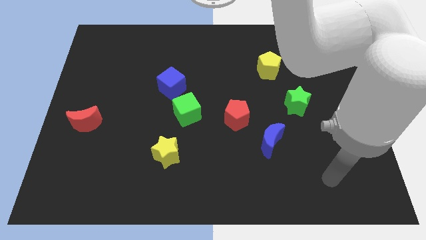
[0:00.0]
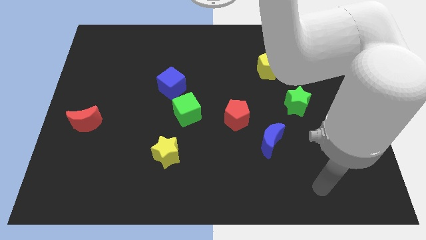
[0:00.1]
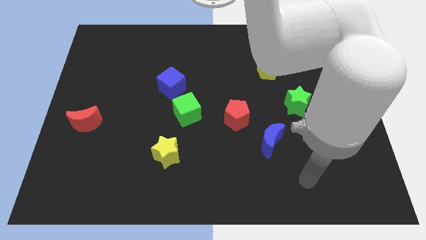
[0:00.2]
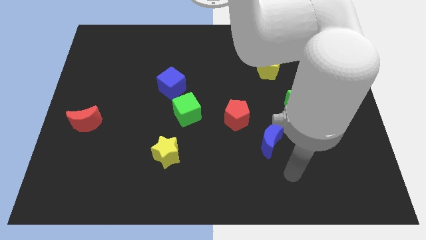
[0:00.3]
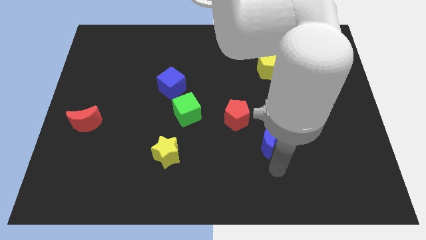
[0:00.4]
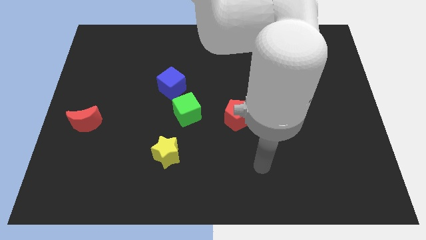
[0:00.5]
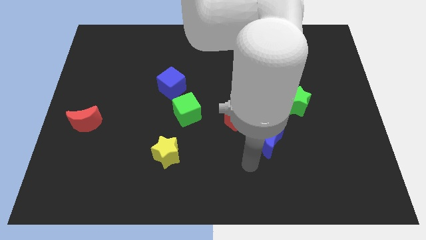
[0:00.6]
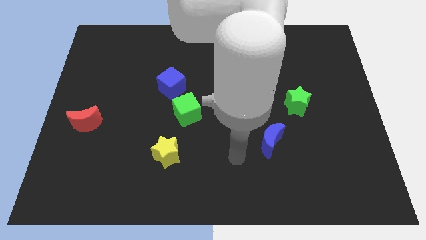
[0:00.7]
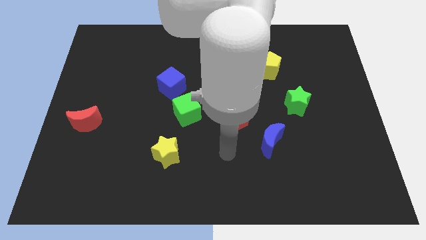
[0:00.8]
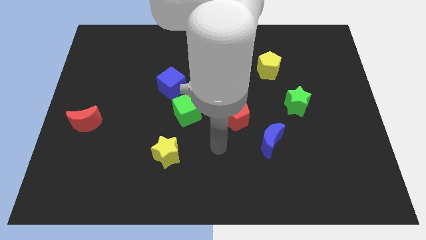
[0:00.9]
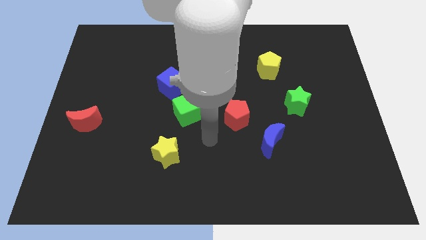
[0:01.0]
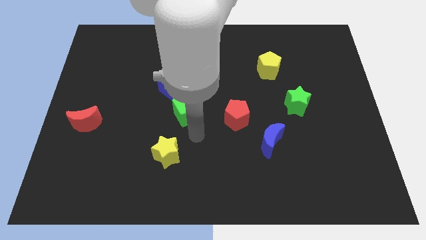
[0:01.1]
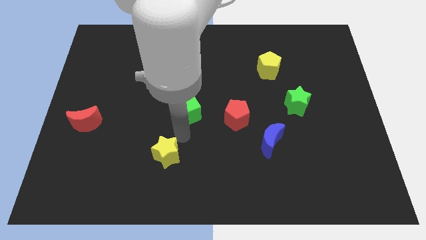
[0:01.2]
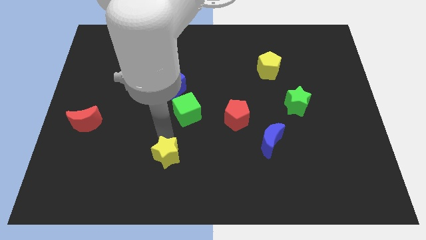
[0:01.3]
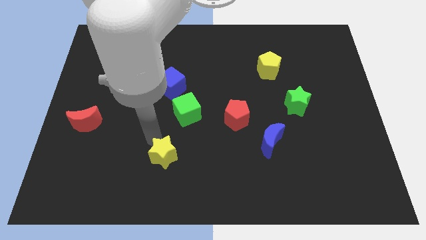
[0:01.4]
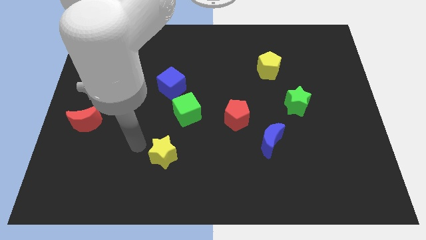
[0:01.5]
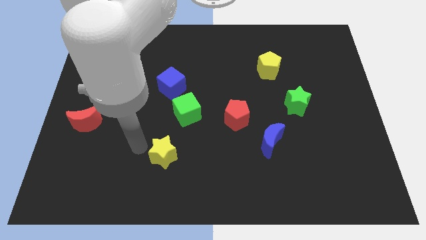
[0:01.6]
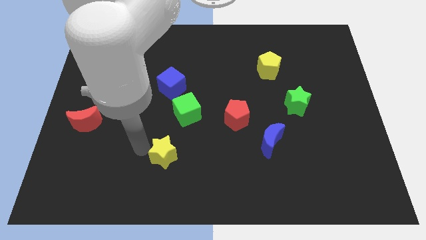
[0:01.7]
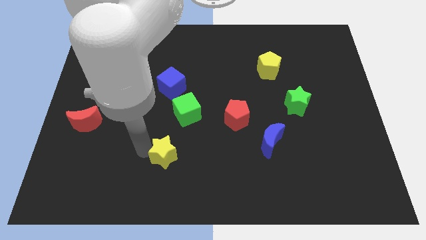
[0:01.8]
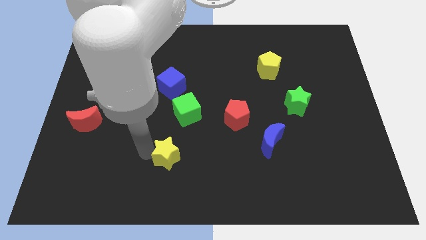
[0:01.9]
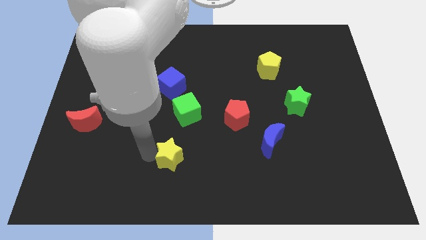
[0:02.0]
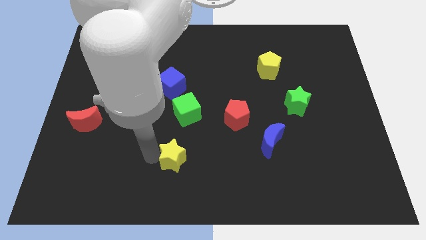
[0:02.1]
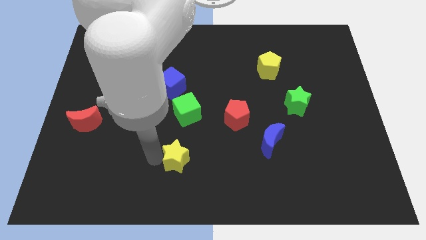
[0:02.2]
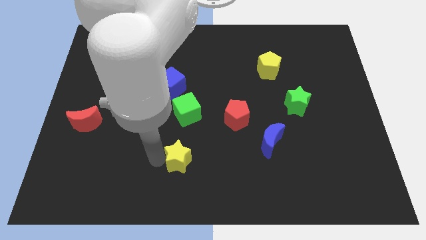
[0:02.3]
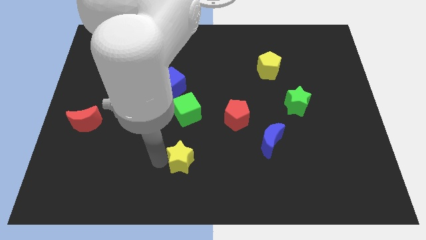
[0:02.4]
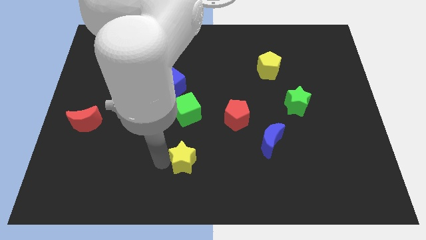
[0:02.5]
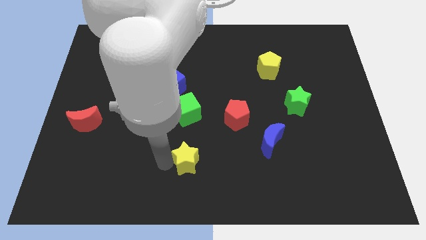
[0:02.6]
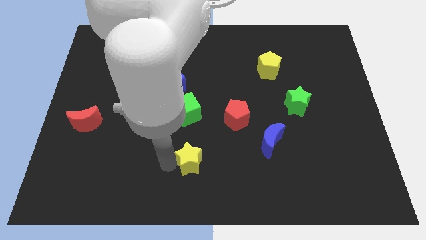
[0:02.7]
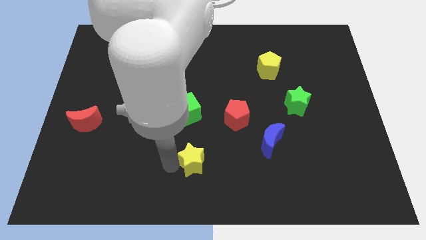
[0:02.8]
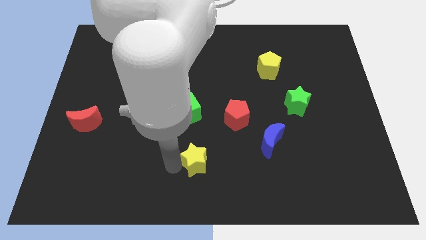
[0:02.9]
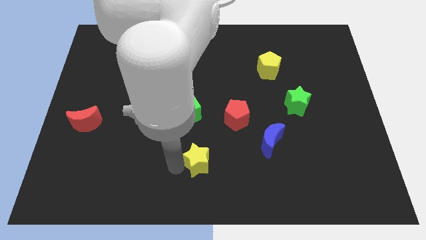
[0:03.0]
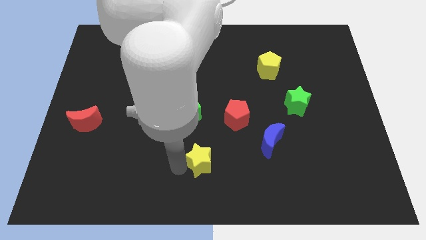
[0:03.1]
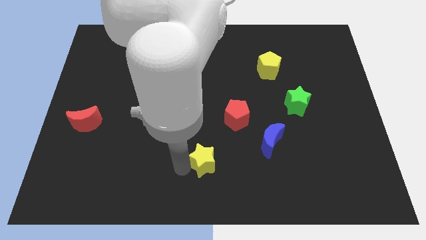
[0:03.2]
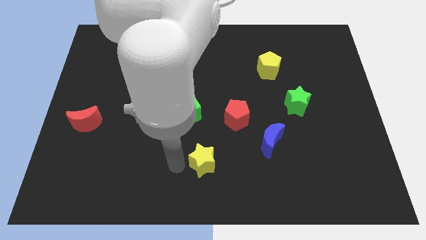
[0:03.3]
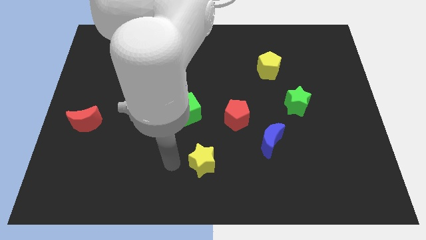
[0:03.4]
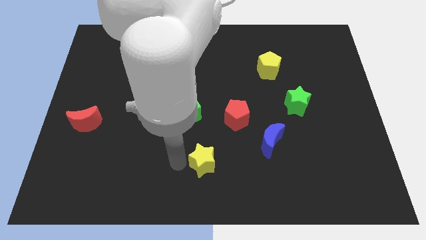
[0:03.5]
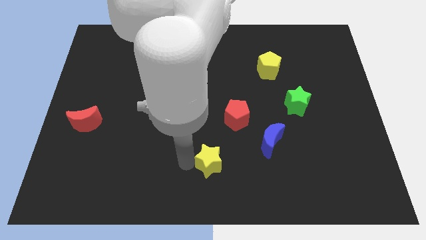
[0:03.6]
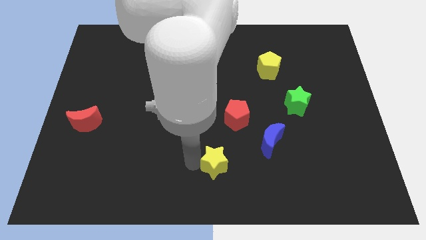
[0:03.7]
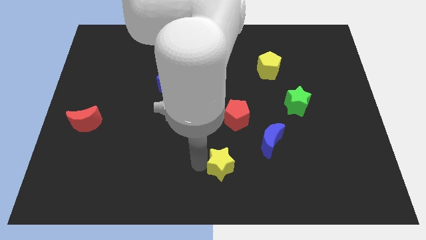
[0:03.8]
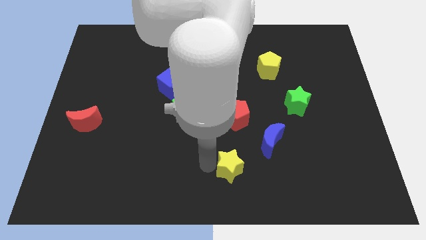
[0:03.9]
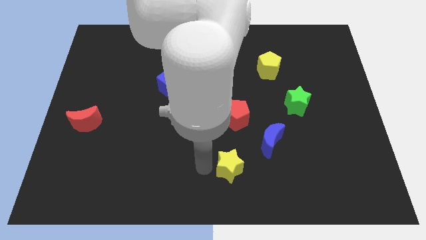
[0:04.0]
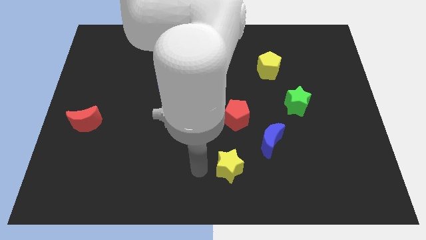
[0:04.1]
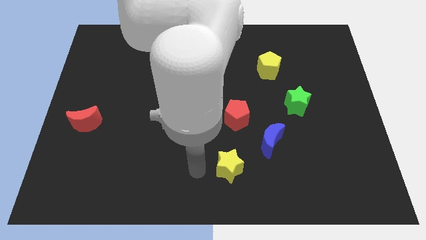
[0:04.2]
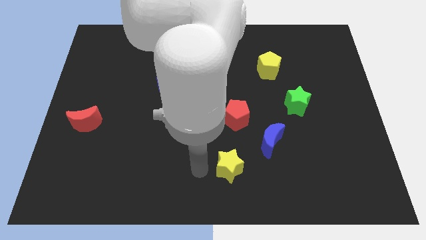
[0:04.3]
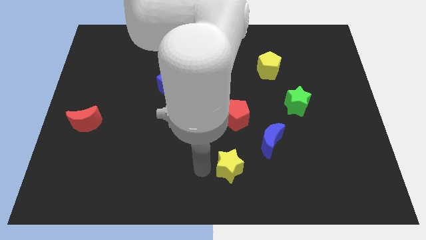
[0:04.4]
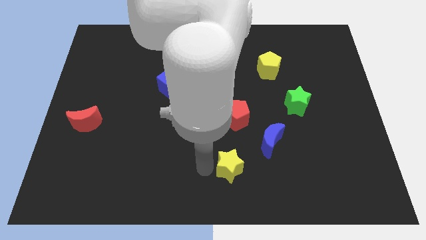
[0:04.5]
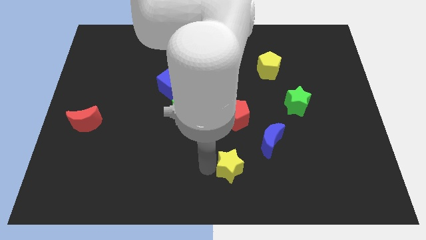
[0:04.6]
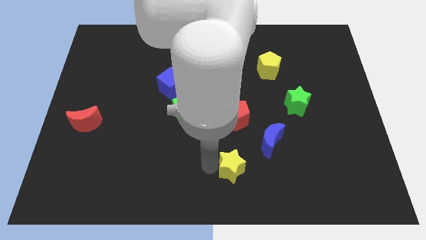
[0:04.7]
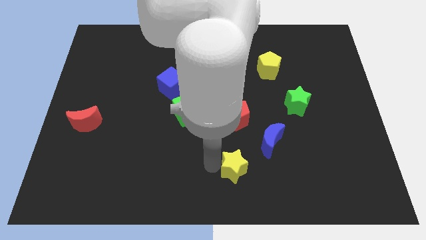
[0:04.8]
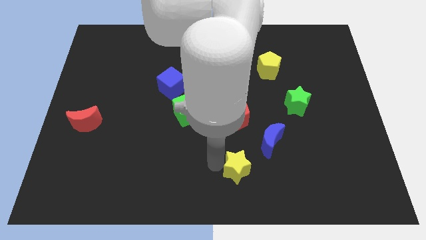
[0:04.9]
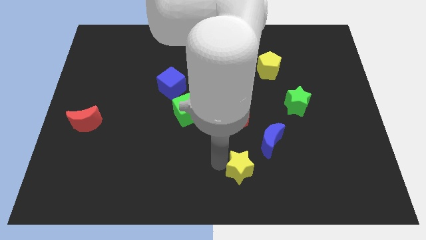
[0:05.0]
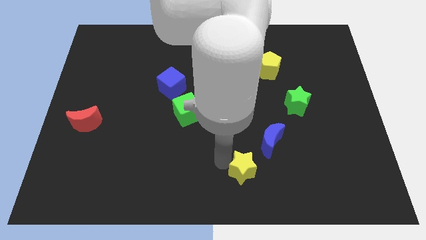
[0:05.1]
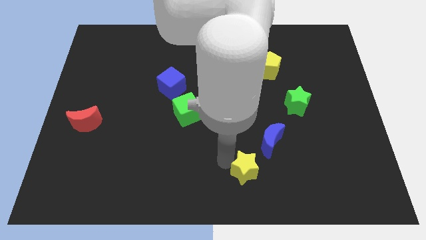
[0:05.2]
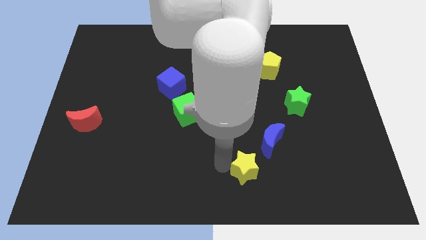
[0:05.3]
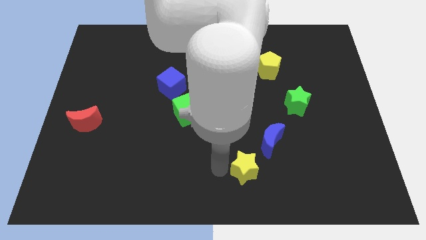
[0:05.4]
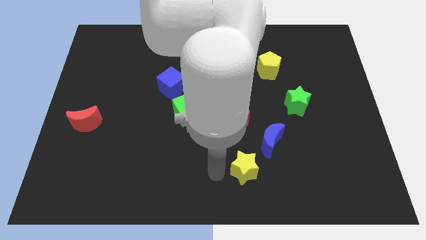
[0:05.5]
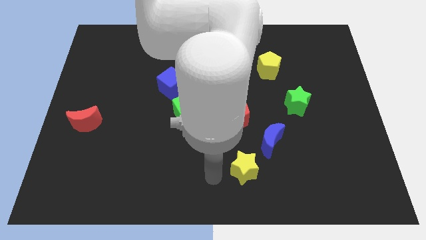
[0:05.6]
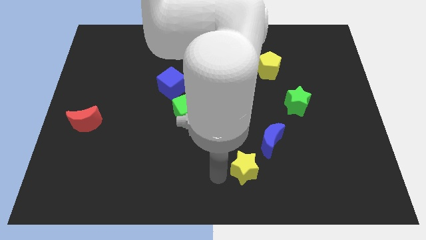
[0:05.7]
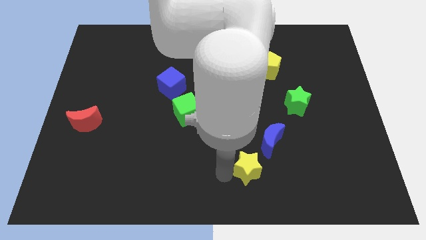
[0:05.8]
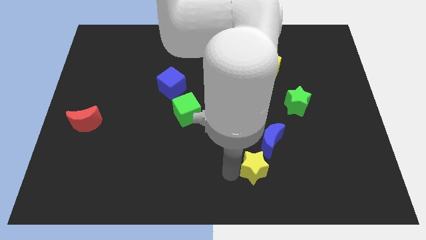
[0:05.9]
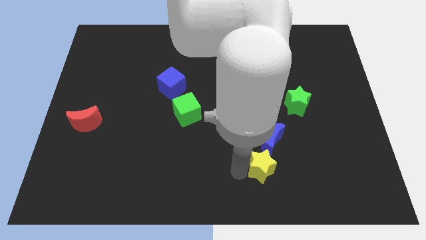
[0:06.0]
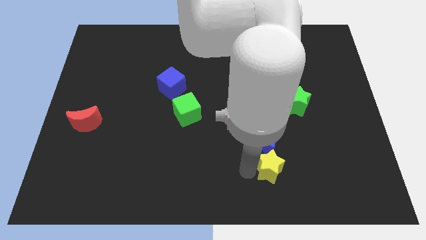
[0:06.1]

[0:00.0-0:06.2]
push the yellow star right

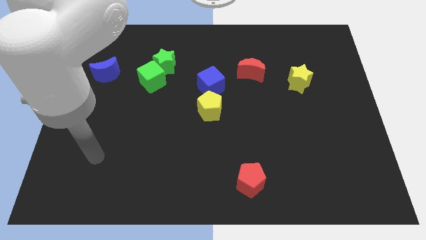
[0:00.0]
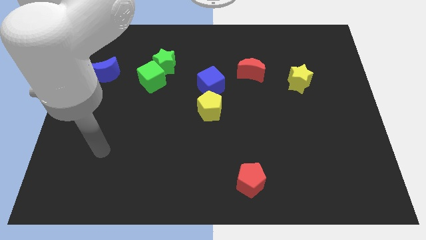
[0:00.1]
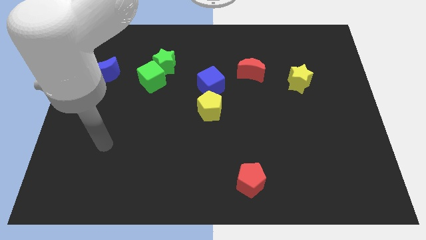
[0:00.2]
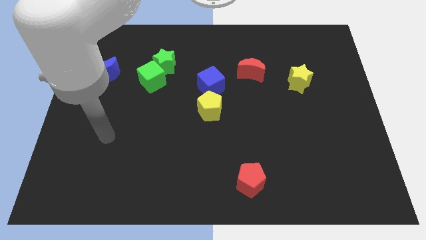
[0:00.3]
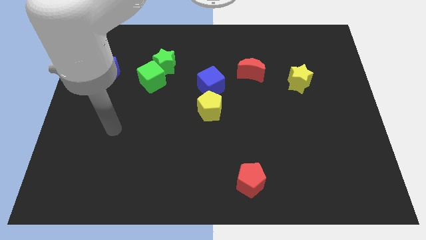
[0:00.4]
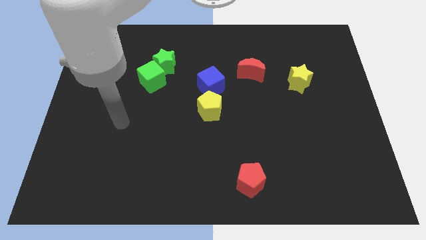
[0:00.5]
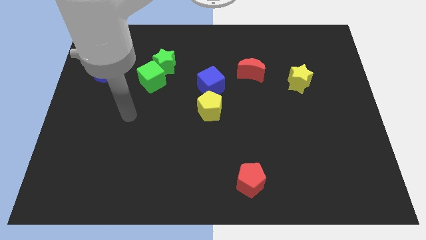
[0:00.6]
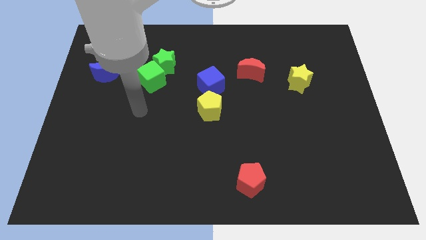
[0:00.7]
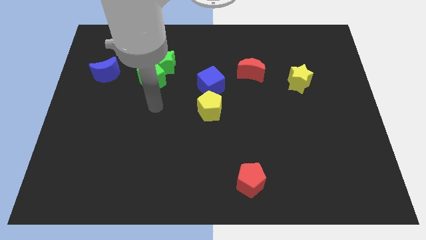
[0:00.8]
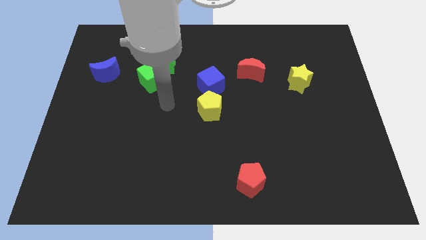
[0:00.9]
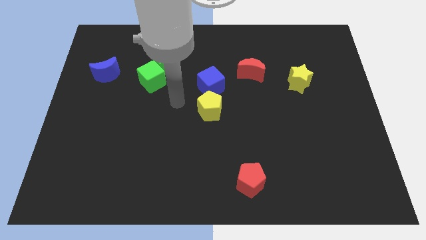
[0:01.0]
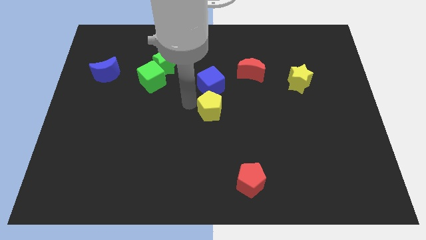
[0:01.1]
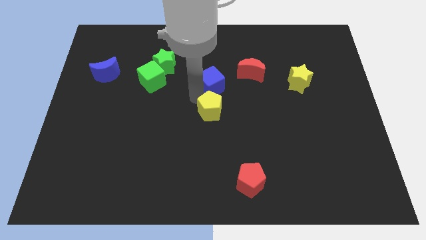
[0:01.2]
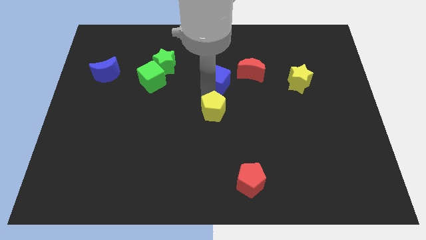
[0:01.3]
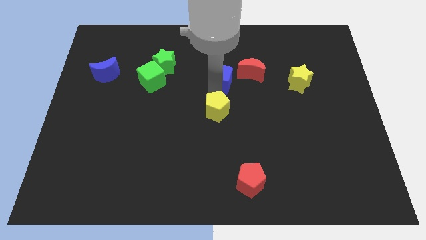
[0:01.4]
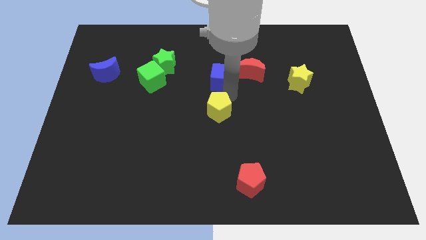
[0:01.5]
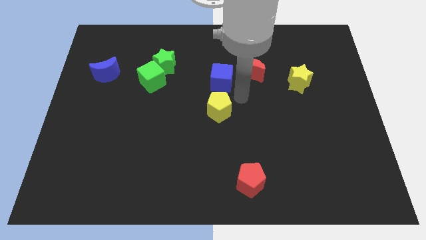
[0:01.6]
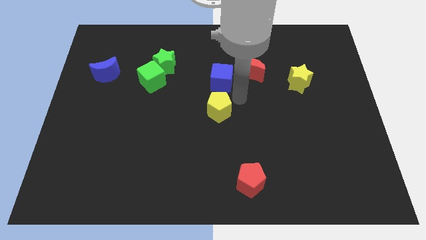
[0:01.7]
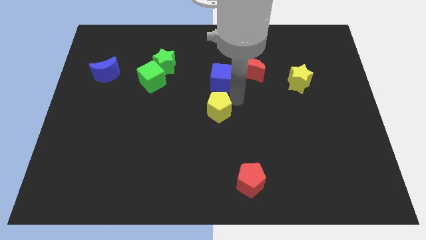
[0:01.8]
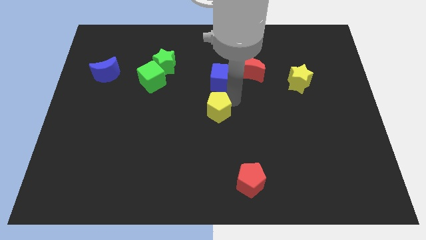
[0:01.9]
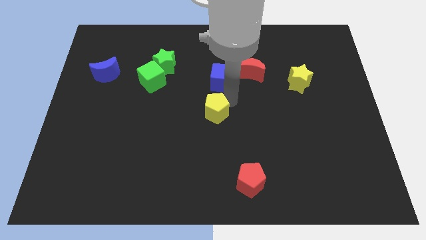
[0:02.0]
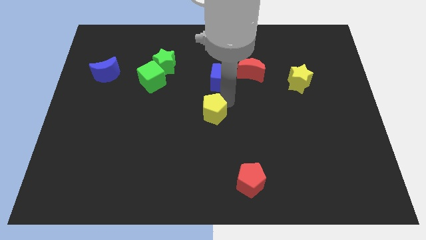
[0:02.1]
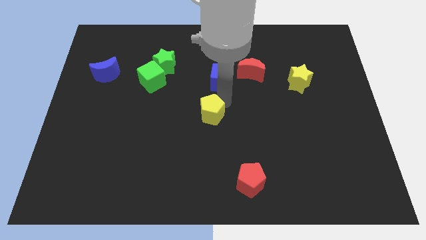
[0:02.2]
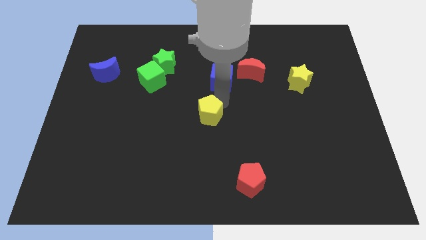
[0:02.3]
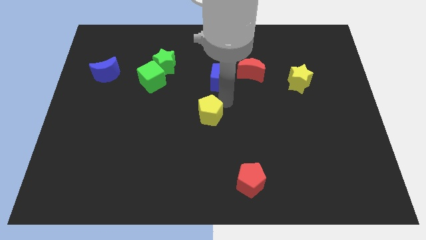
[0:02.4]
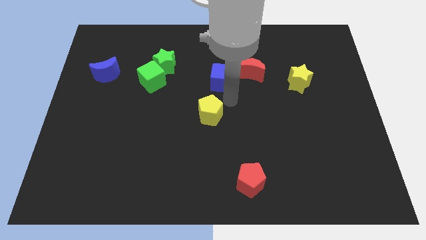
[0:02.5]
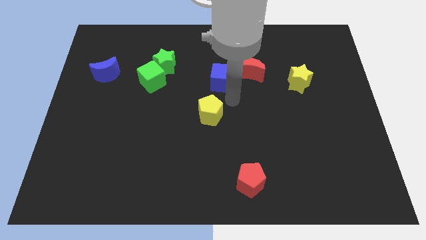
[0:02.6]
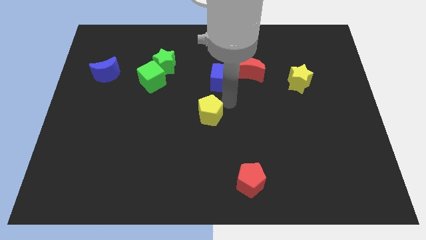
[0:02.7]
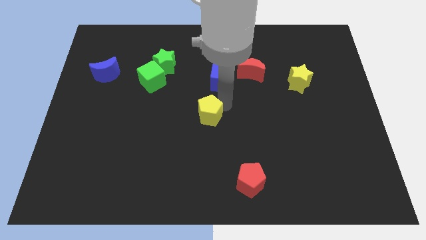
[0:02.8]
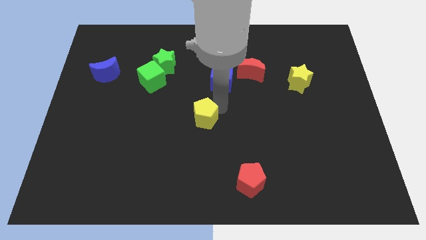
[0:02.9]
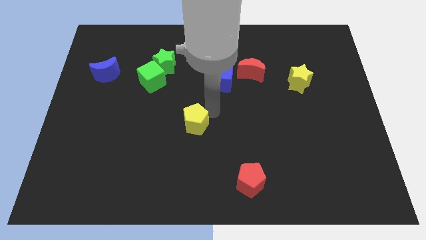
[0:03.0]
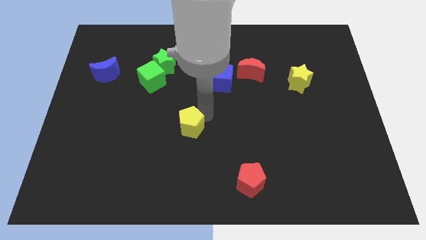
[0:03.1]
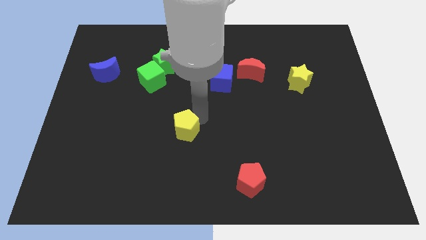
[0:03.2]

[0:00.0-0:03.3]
push the yellow pentagon down and to the left diagonally slightly
